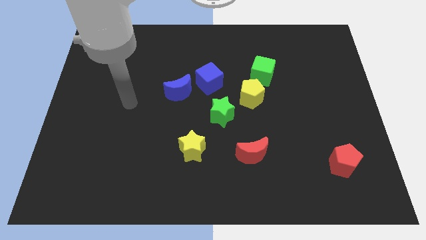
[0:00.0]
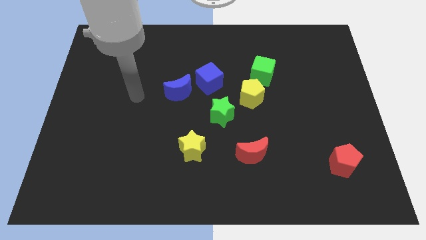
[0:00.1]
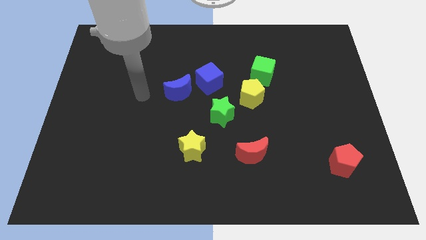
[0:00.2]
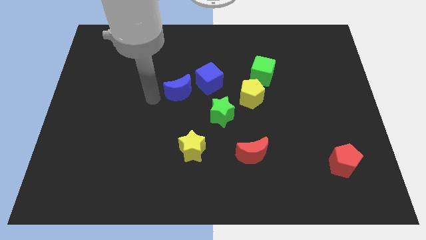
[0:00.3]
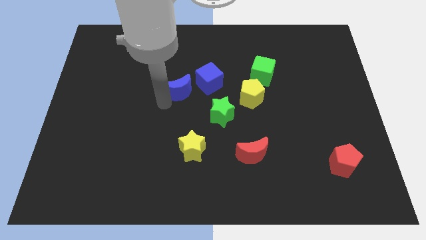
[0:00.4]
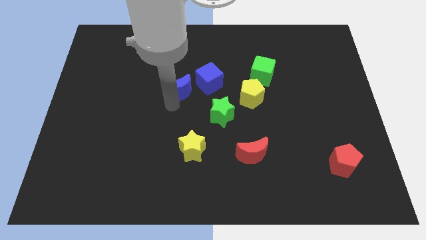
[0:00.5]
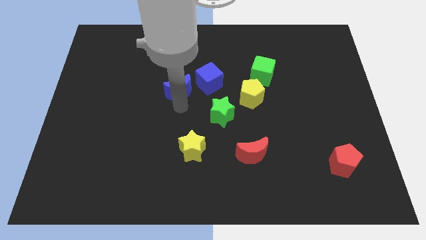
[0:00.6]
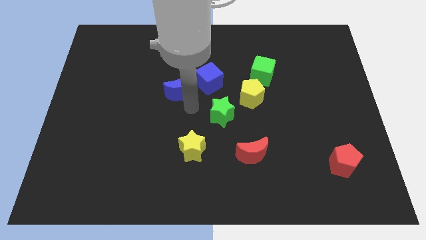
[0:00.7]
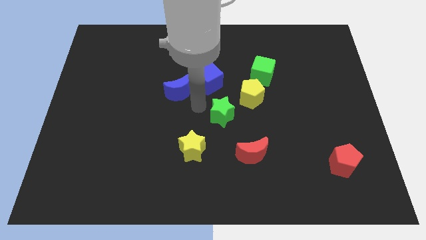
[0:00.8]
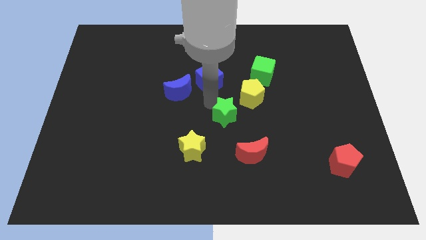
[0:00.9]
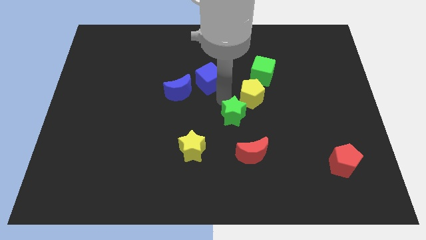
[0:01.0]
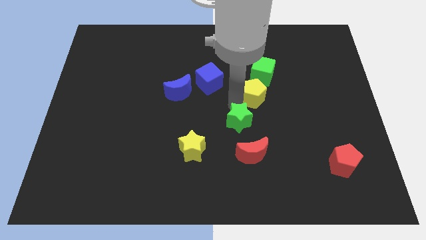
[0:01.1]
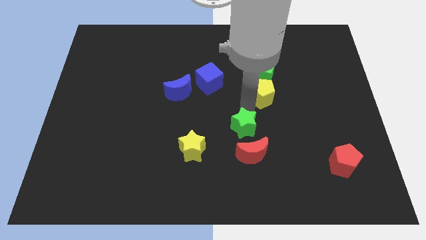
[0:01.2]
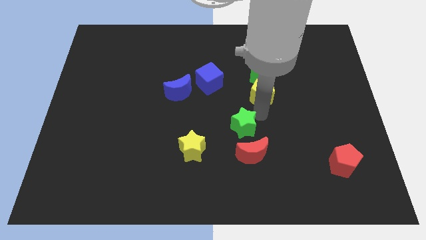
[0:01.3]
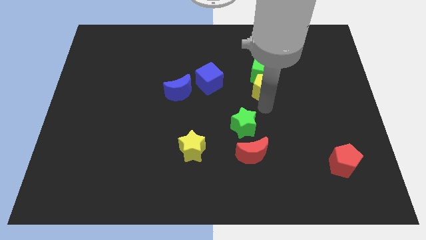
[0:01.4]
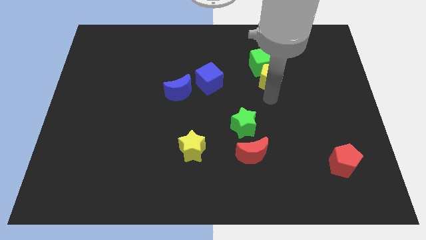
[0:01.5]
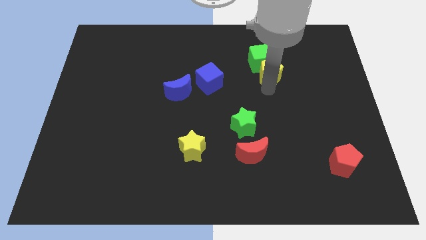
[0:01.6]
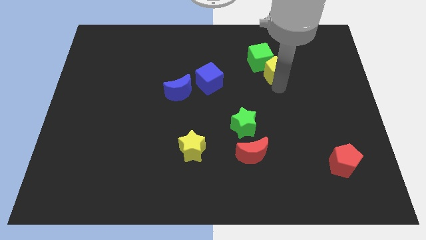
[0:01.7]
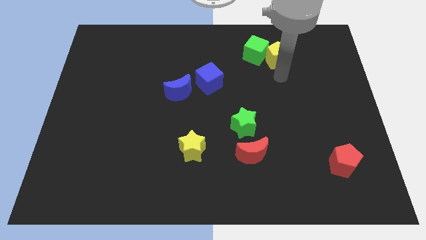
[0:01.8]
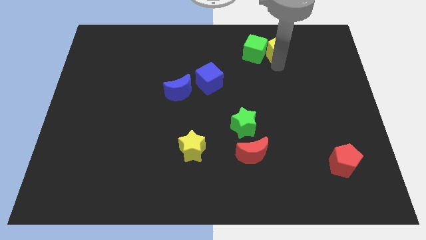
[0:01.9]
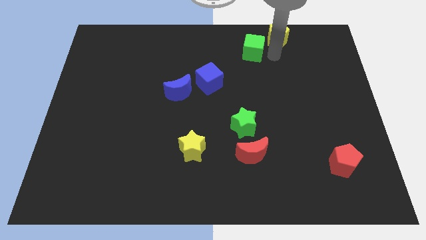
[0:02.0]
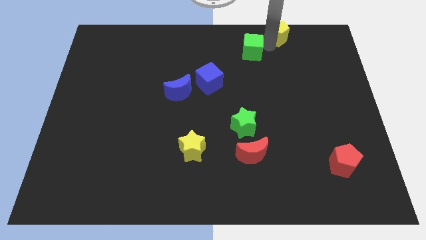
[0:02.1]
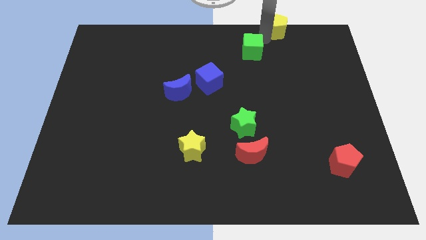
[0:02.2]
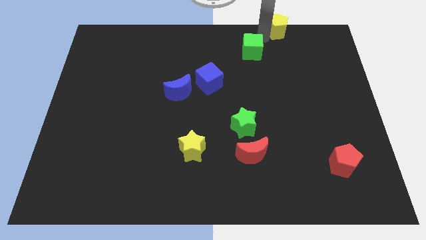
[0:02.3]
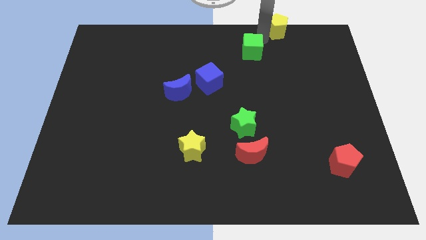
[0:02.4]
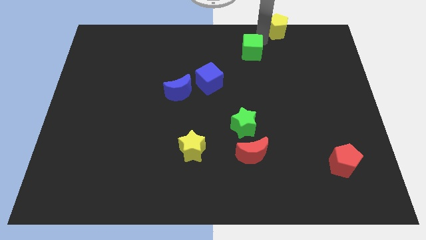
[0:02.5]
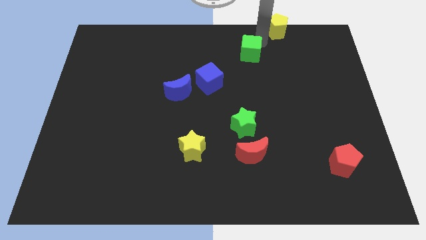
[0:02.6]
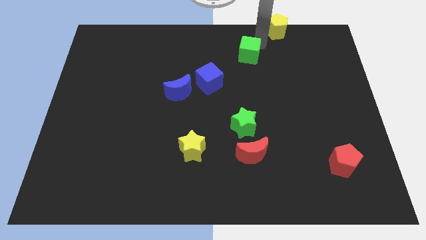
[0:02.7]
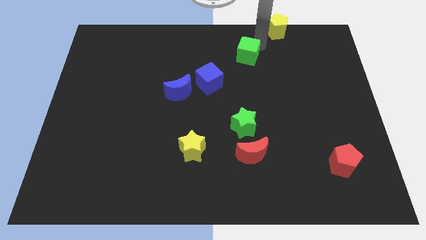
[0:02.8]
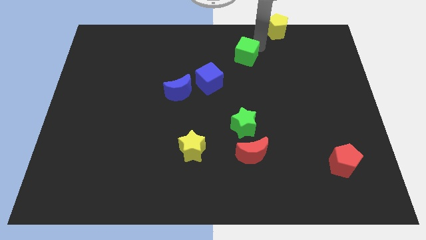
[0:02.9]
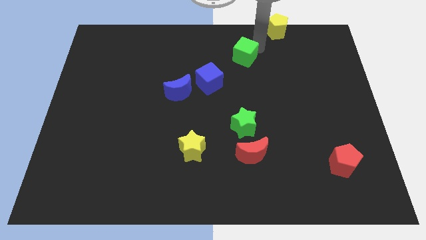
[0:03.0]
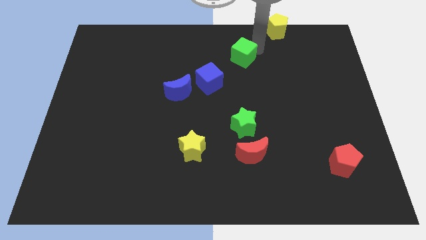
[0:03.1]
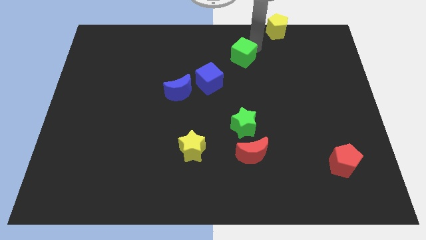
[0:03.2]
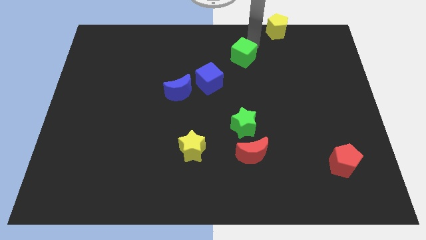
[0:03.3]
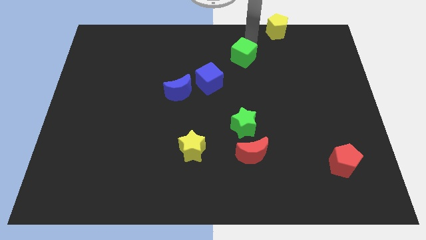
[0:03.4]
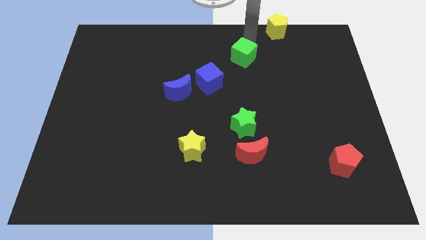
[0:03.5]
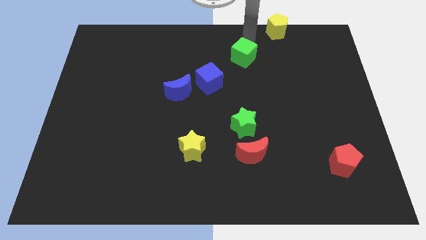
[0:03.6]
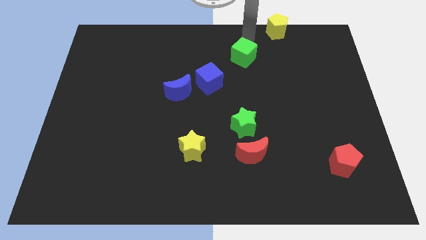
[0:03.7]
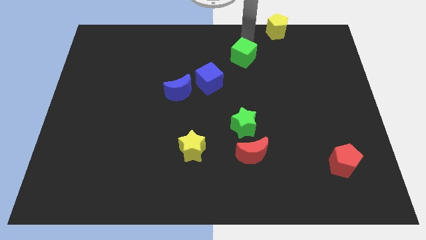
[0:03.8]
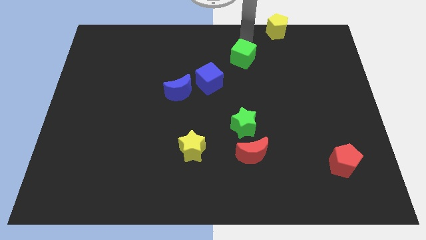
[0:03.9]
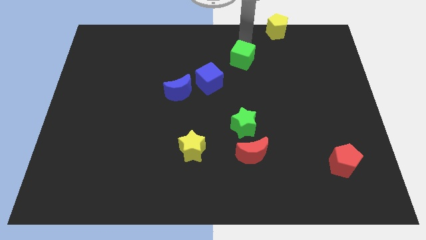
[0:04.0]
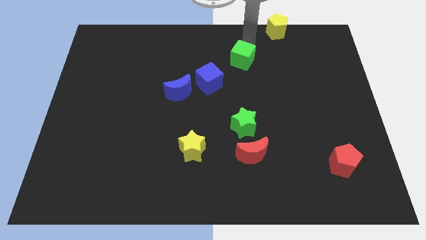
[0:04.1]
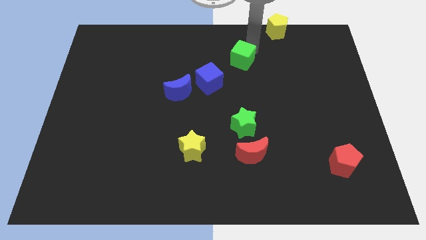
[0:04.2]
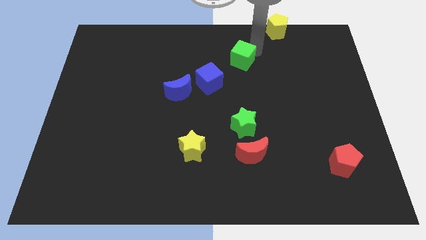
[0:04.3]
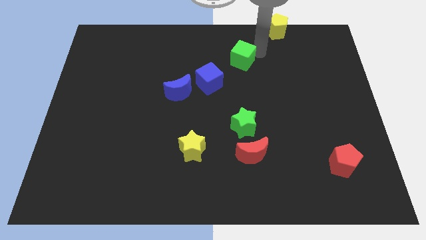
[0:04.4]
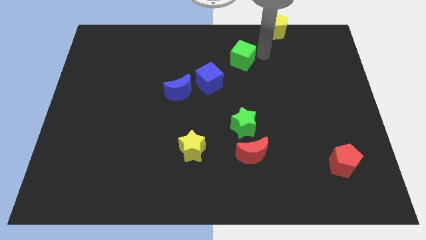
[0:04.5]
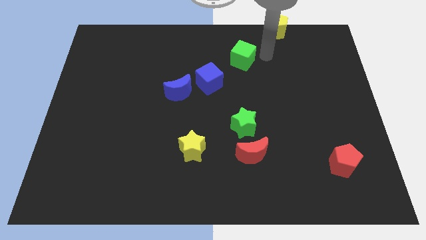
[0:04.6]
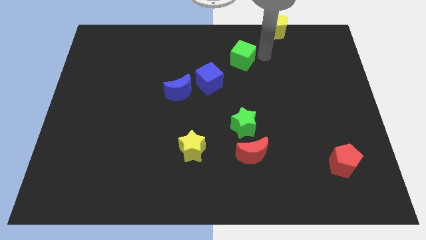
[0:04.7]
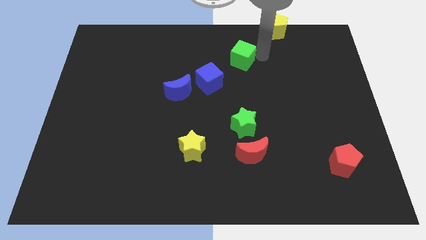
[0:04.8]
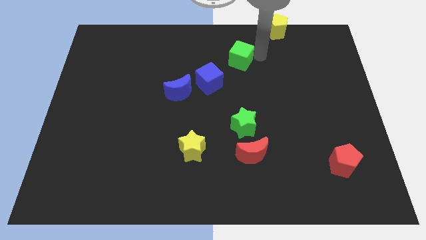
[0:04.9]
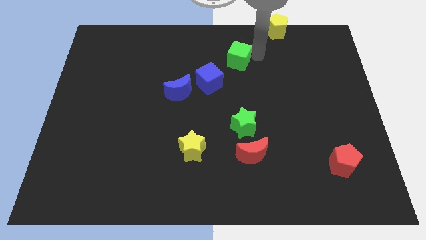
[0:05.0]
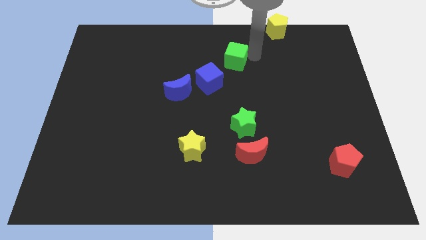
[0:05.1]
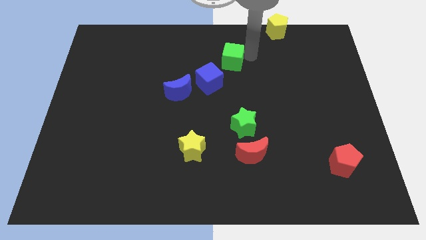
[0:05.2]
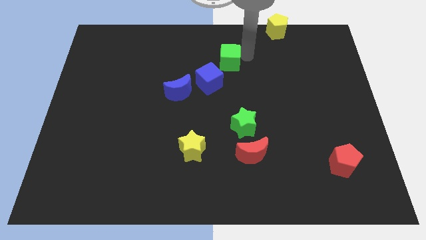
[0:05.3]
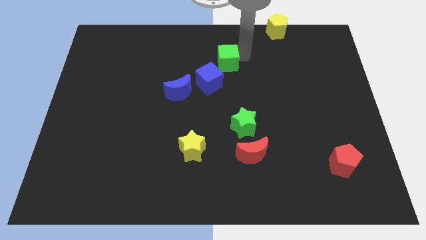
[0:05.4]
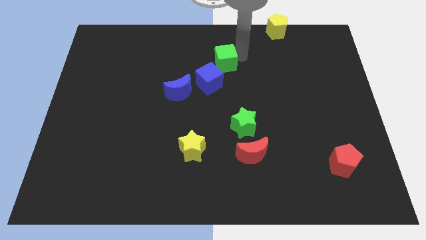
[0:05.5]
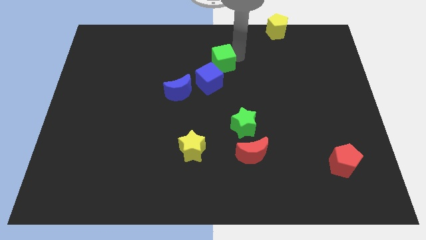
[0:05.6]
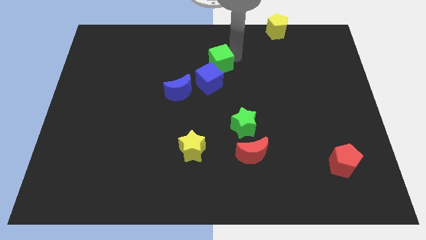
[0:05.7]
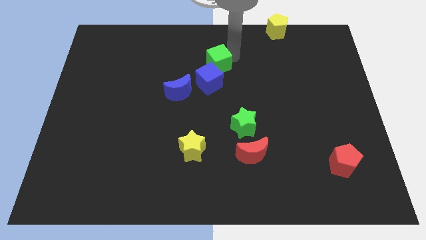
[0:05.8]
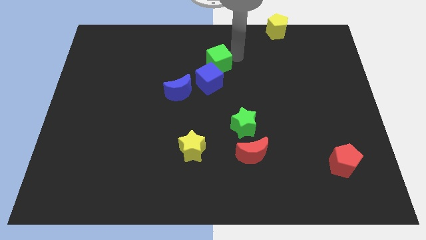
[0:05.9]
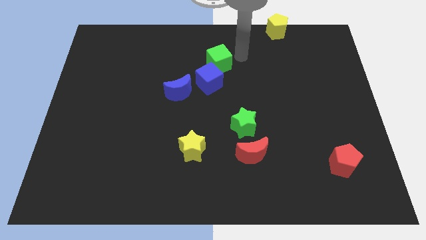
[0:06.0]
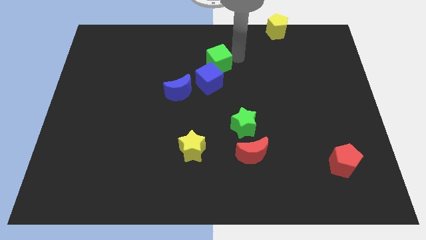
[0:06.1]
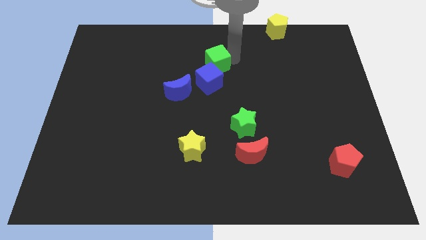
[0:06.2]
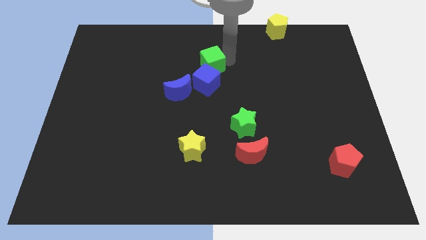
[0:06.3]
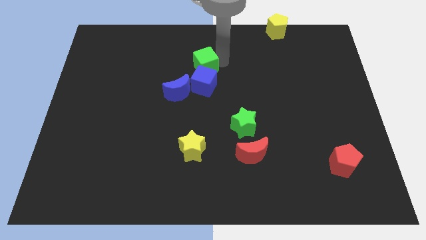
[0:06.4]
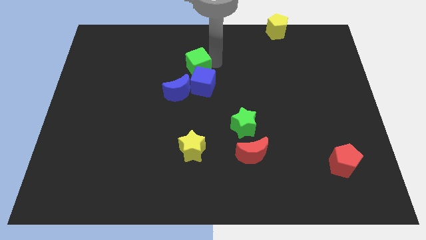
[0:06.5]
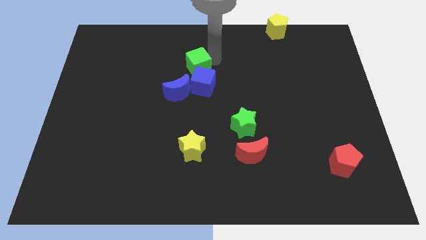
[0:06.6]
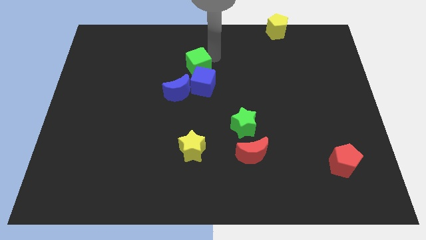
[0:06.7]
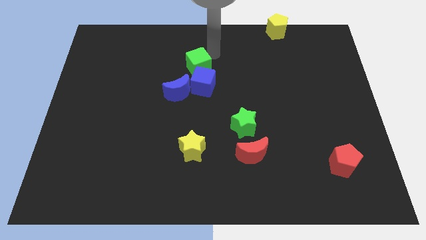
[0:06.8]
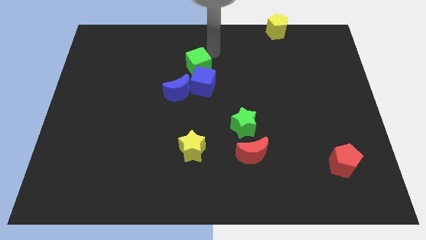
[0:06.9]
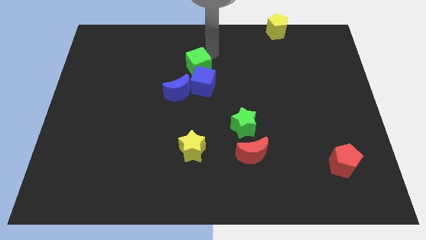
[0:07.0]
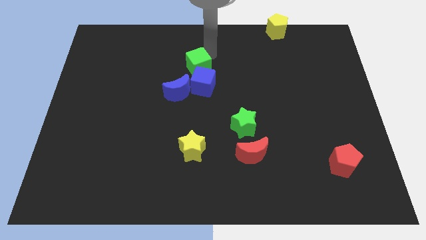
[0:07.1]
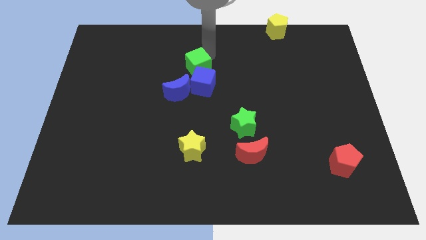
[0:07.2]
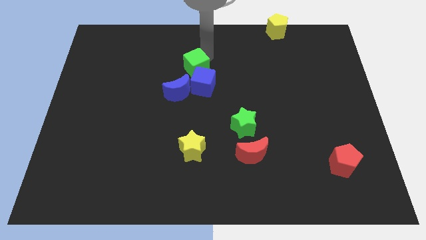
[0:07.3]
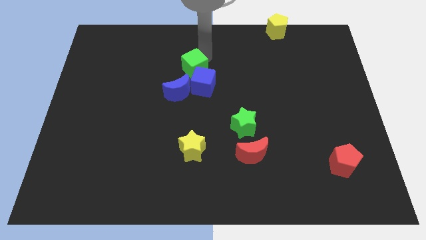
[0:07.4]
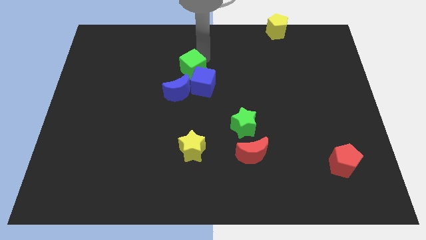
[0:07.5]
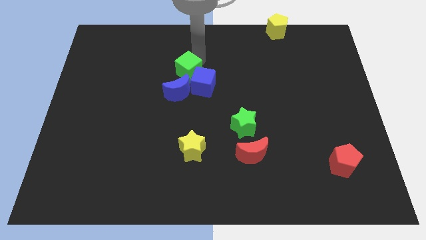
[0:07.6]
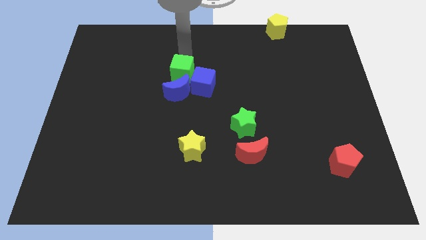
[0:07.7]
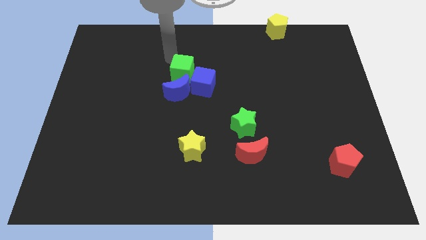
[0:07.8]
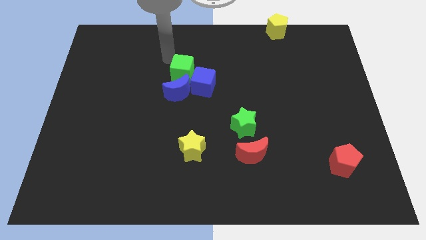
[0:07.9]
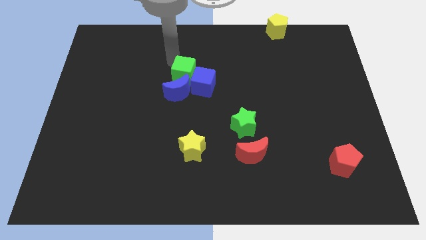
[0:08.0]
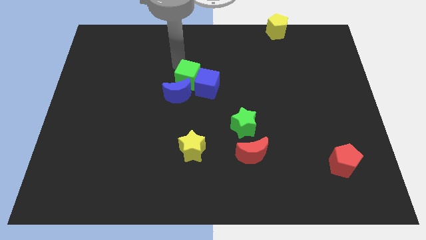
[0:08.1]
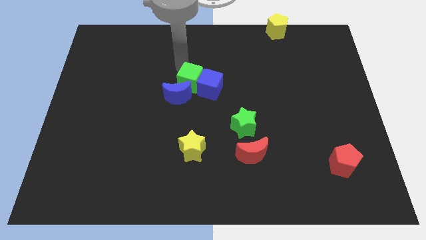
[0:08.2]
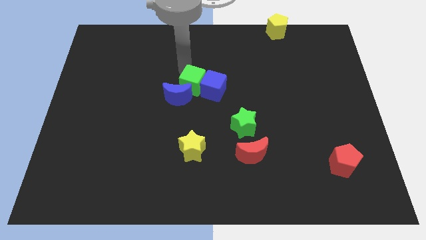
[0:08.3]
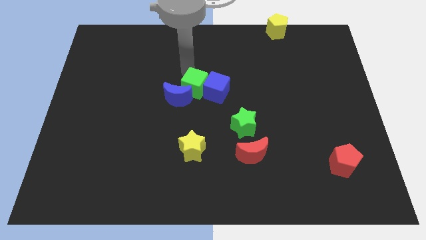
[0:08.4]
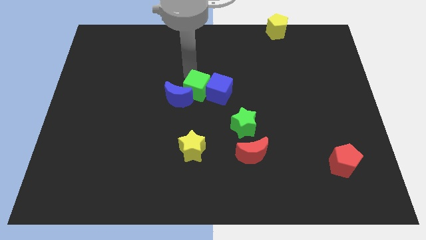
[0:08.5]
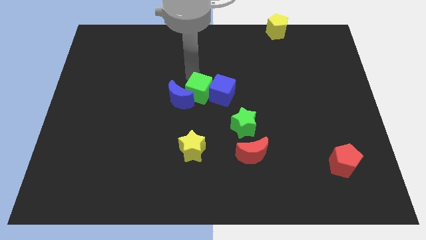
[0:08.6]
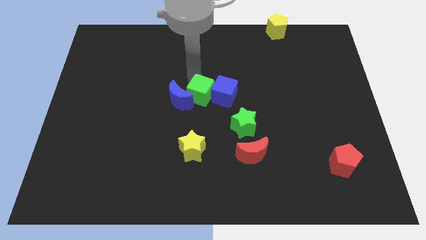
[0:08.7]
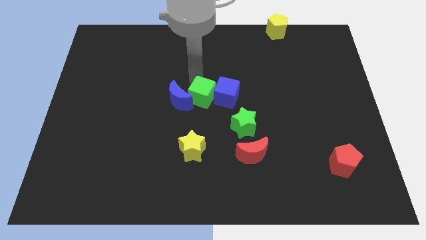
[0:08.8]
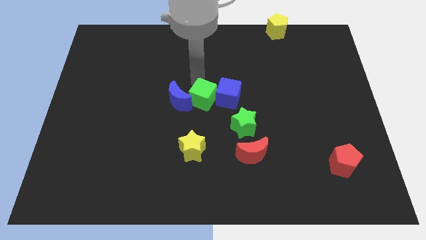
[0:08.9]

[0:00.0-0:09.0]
slide the green cube diagonally up and to the left of the green star
